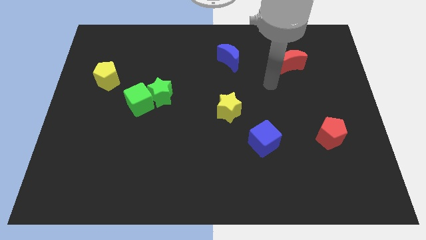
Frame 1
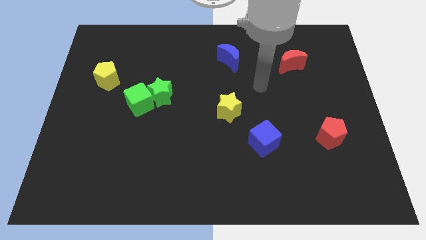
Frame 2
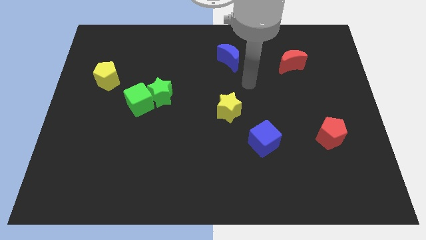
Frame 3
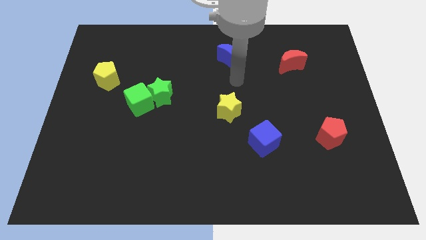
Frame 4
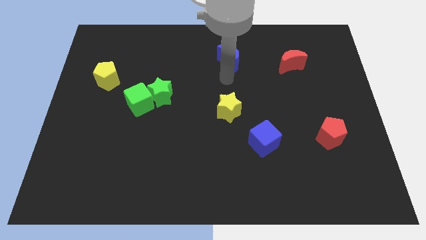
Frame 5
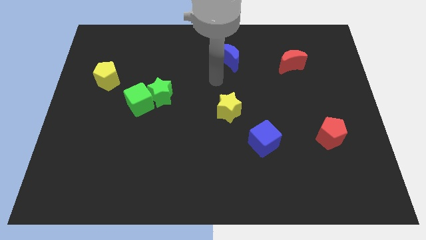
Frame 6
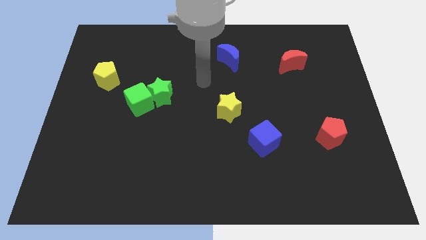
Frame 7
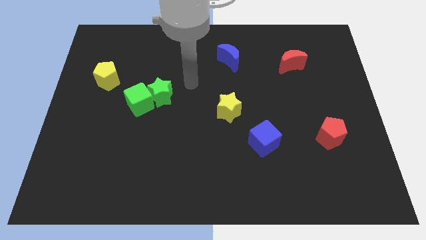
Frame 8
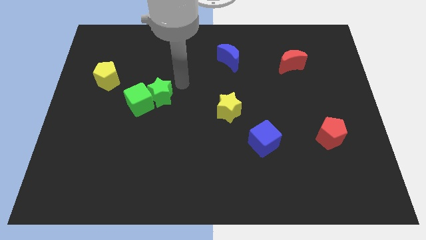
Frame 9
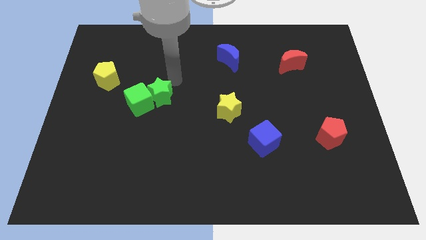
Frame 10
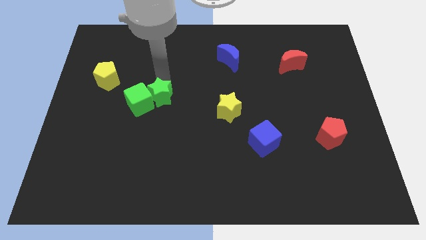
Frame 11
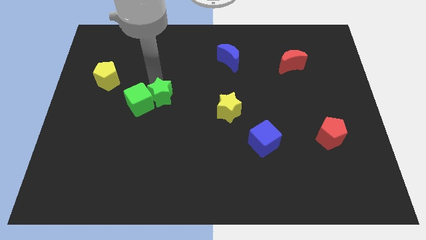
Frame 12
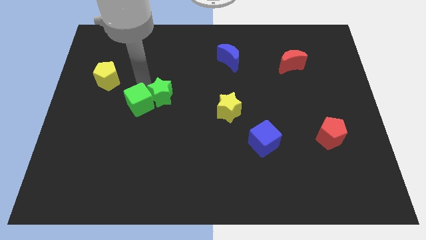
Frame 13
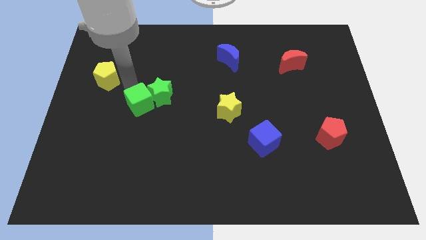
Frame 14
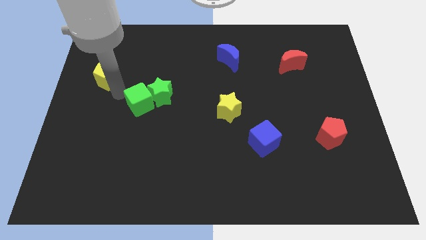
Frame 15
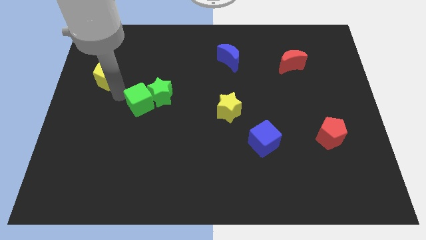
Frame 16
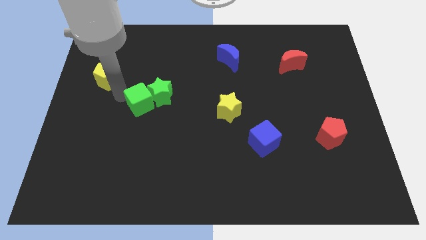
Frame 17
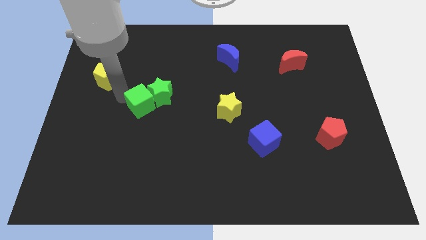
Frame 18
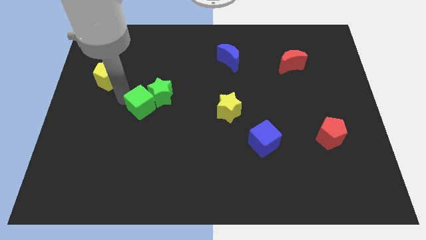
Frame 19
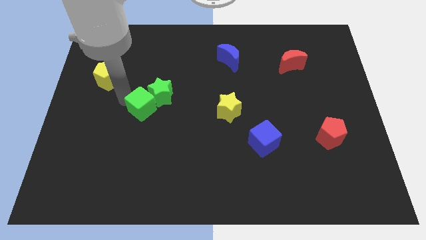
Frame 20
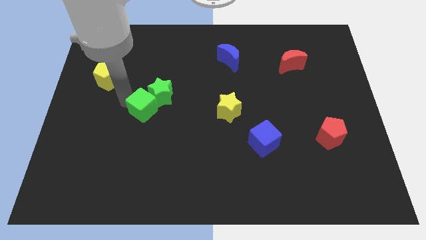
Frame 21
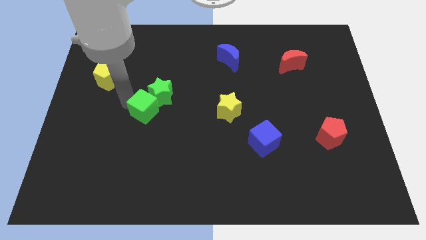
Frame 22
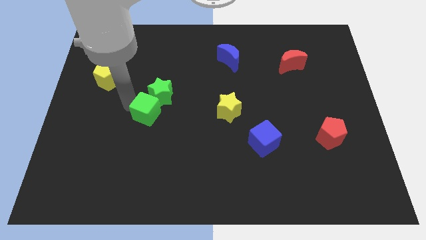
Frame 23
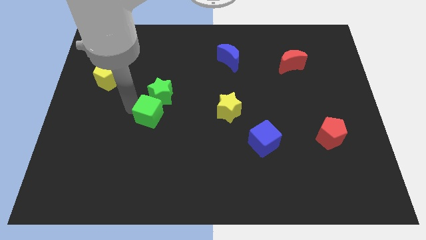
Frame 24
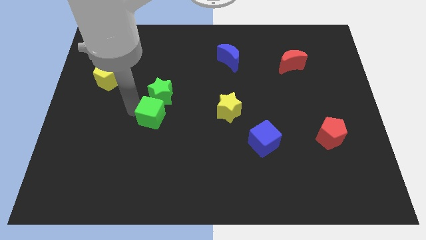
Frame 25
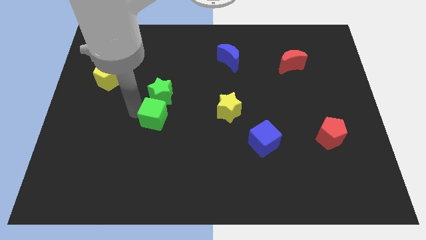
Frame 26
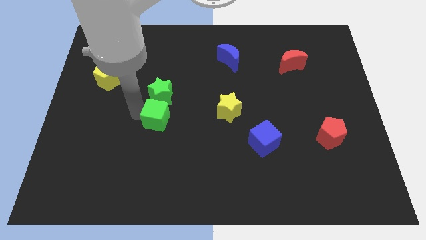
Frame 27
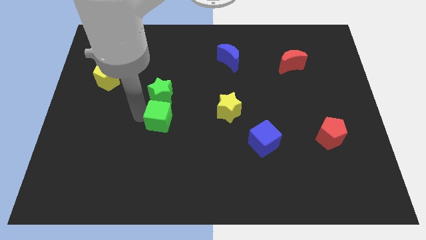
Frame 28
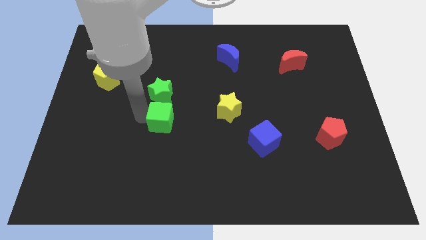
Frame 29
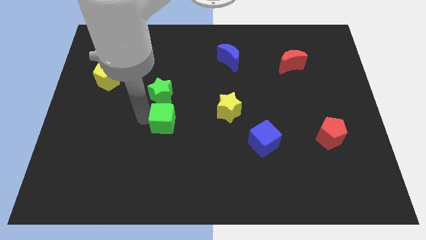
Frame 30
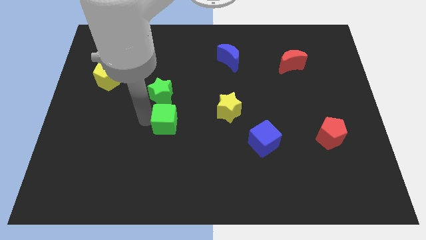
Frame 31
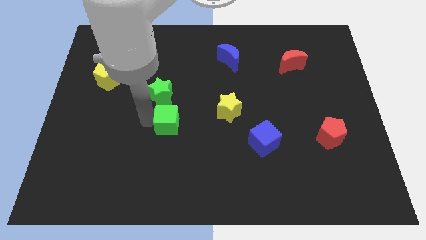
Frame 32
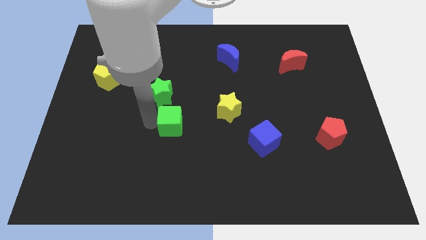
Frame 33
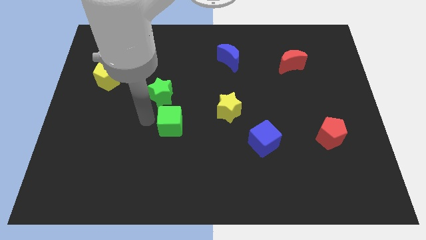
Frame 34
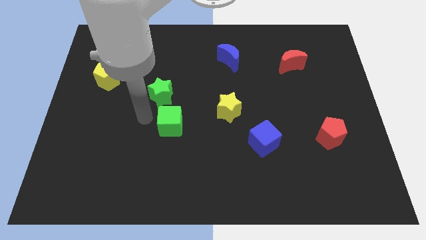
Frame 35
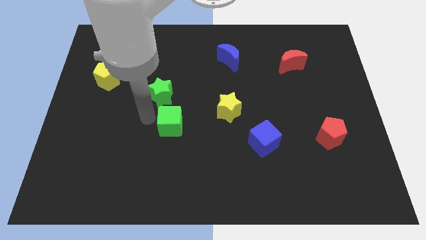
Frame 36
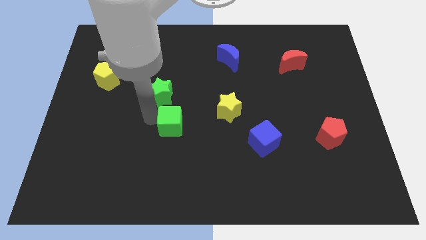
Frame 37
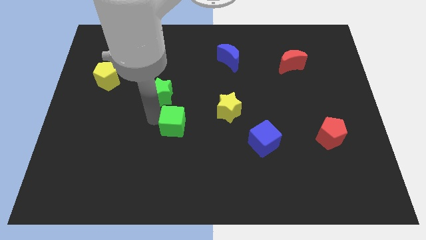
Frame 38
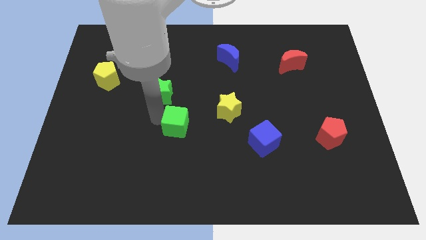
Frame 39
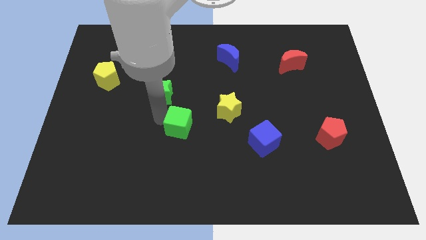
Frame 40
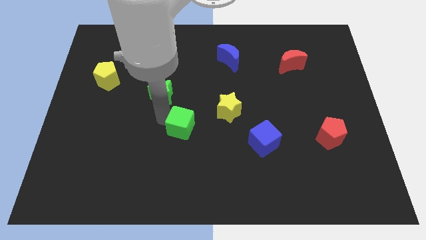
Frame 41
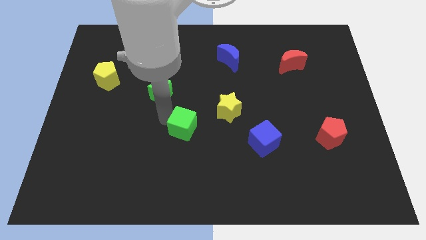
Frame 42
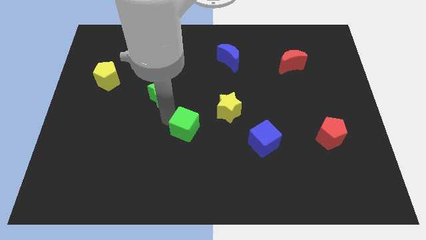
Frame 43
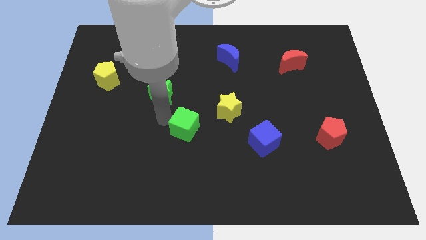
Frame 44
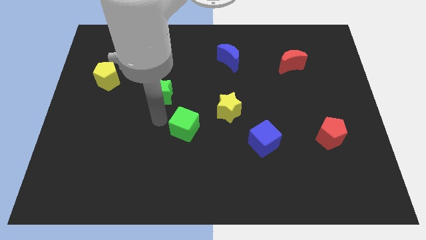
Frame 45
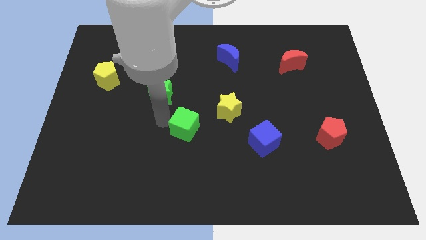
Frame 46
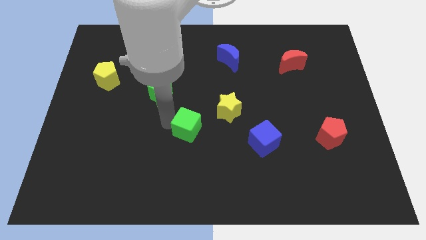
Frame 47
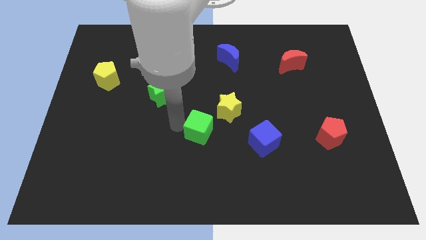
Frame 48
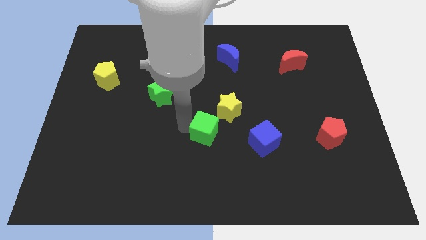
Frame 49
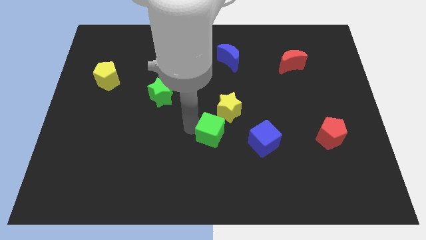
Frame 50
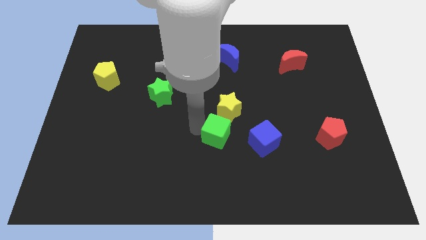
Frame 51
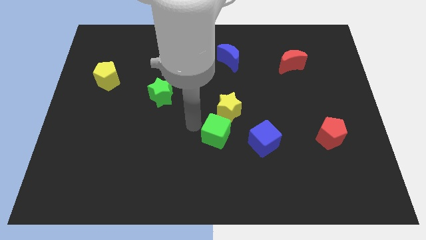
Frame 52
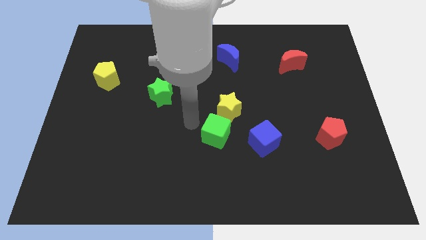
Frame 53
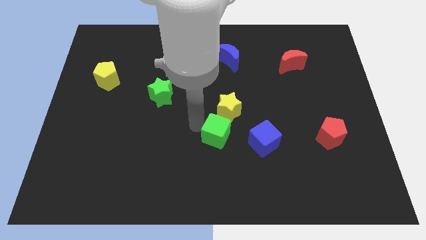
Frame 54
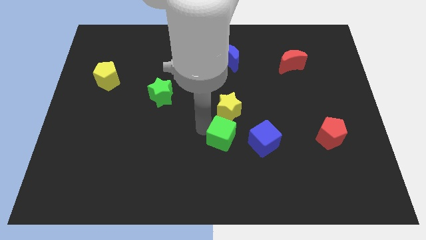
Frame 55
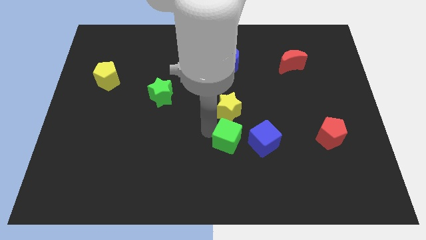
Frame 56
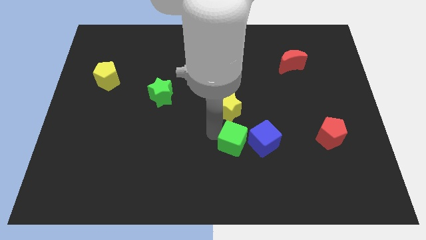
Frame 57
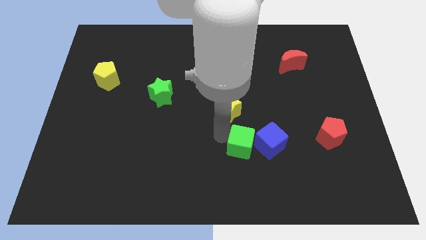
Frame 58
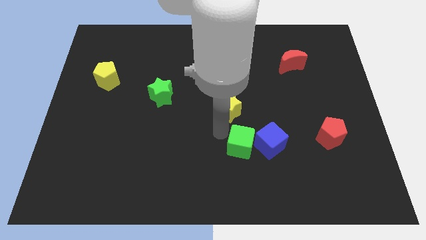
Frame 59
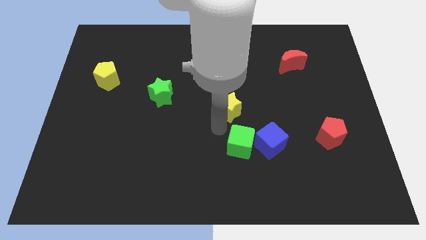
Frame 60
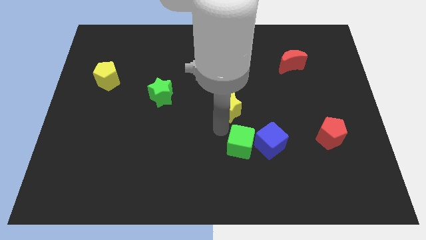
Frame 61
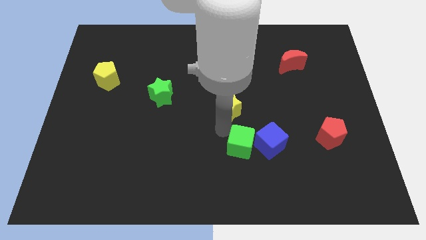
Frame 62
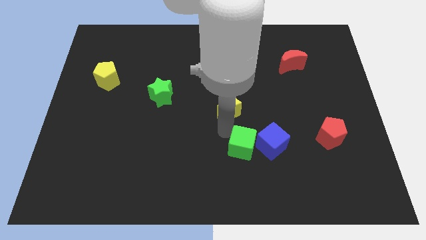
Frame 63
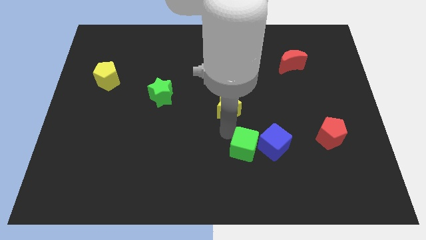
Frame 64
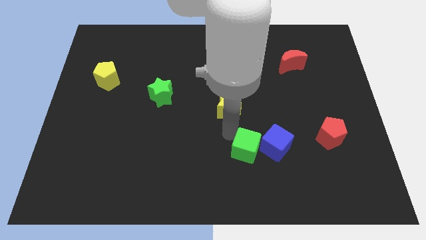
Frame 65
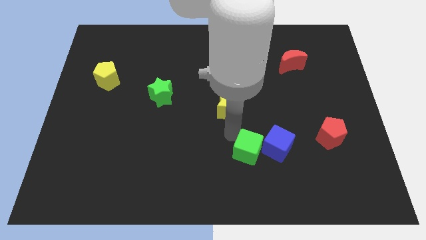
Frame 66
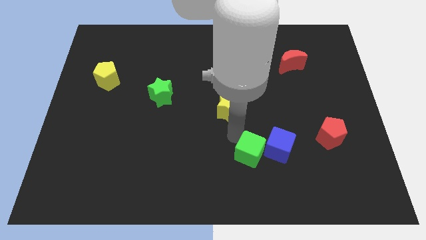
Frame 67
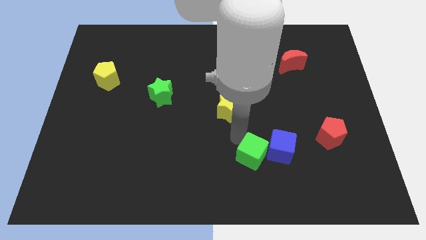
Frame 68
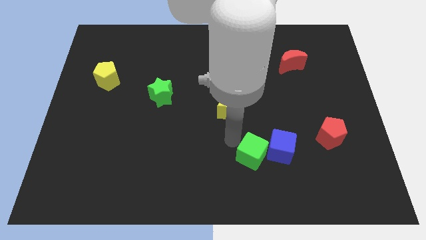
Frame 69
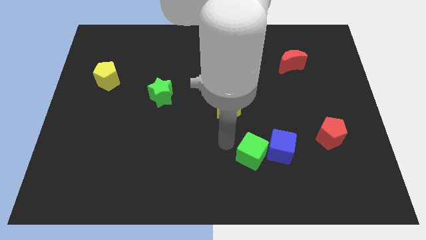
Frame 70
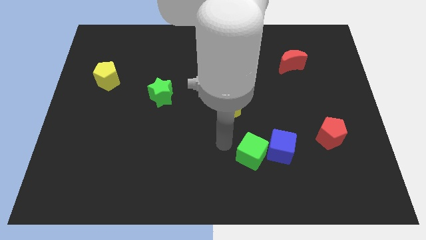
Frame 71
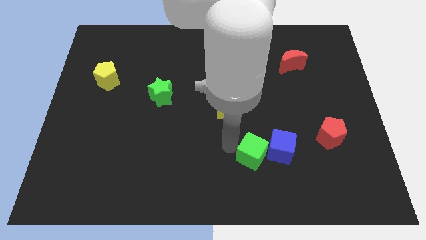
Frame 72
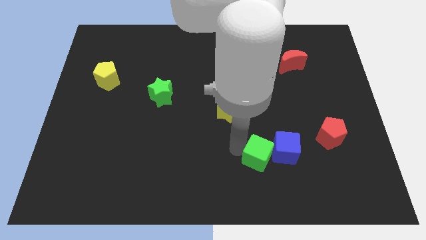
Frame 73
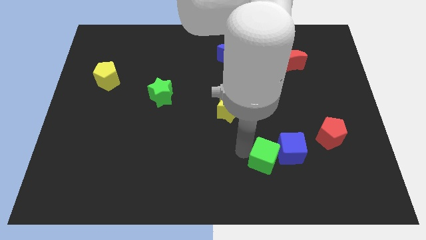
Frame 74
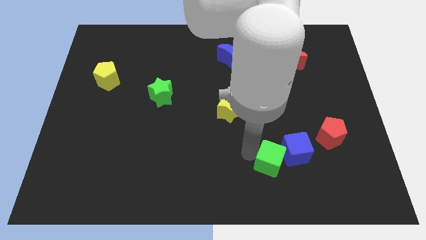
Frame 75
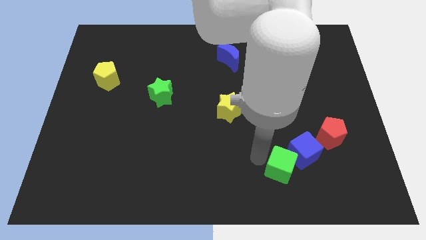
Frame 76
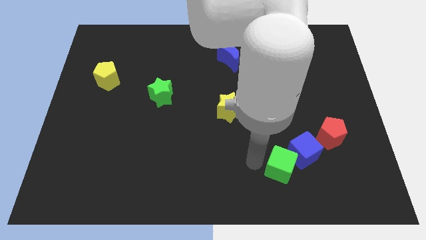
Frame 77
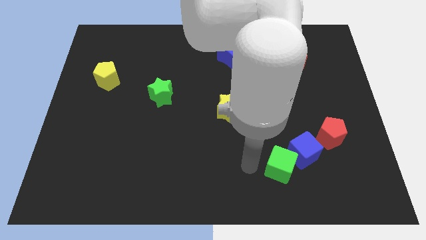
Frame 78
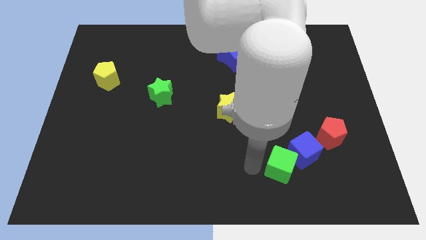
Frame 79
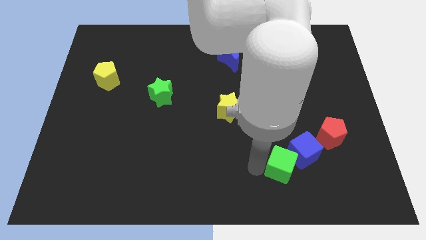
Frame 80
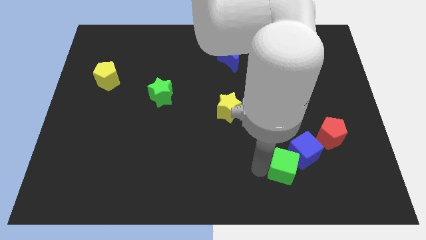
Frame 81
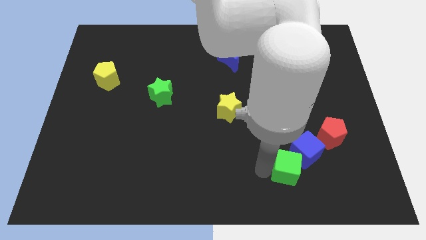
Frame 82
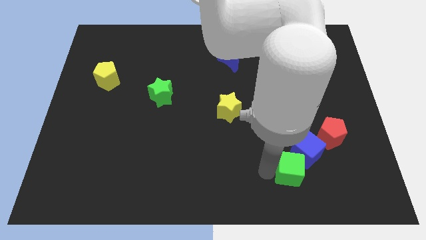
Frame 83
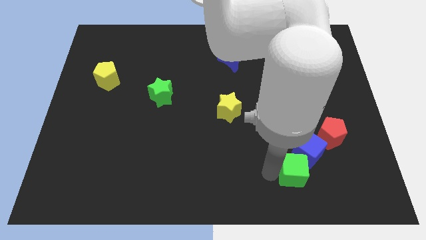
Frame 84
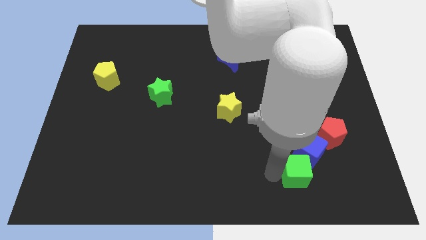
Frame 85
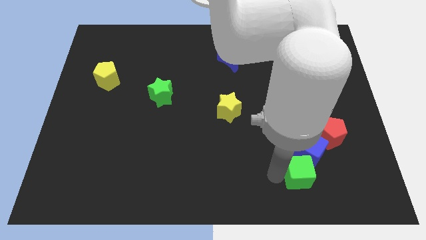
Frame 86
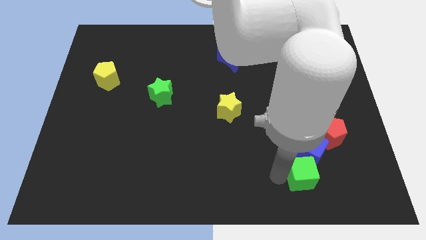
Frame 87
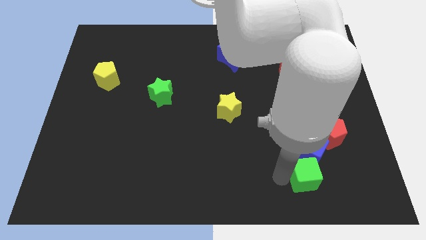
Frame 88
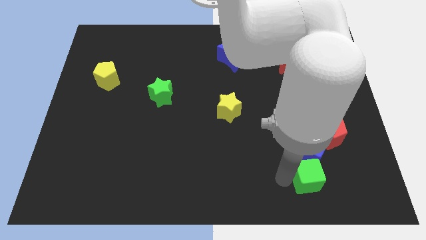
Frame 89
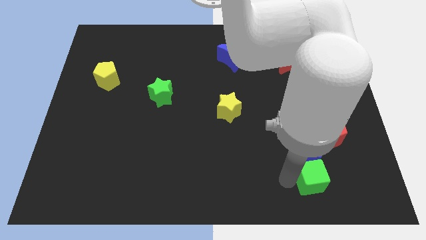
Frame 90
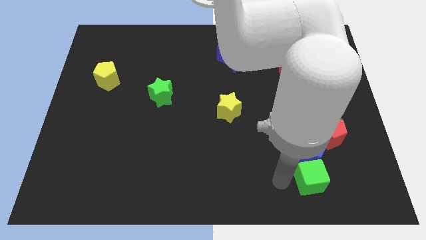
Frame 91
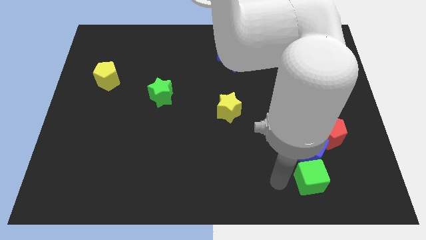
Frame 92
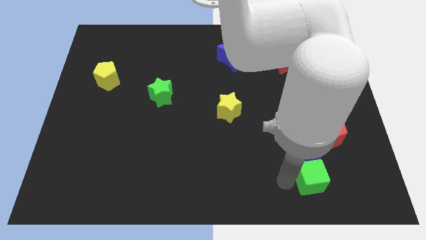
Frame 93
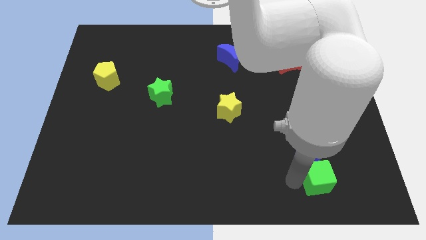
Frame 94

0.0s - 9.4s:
push the green cube below the red pentagon
